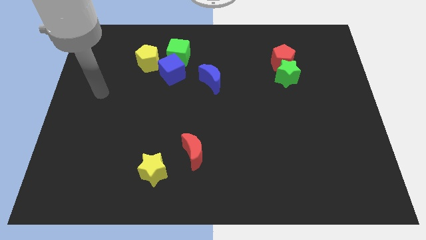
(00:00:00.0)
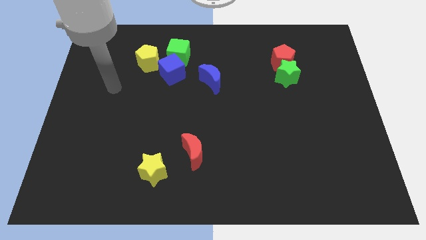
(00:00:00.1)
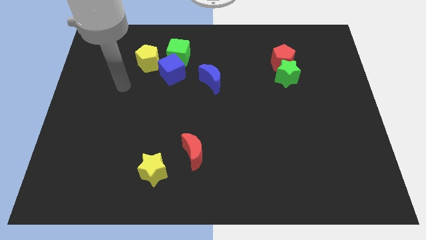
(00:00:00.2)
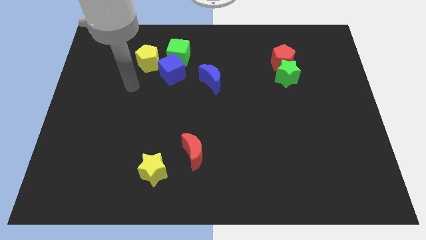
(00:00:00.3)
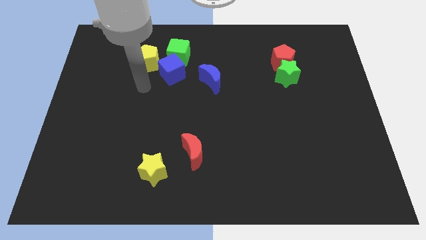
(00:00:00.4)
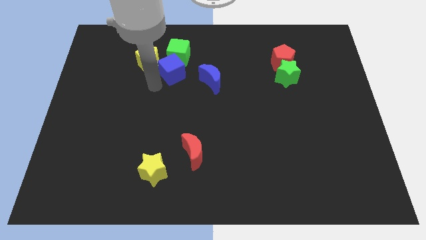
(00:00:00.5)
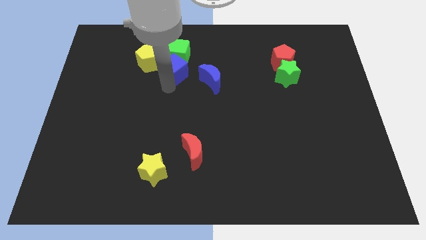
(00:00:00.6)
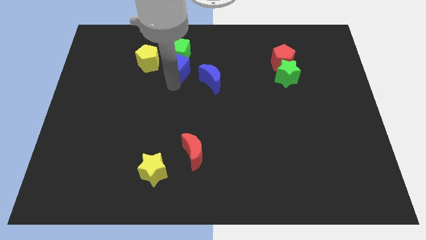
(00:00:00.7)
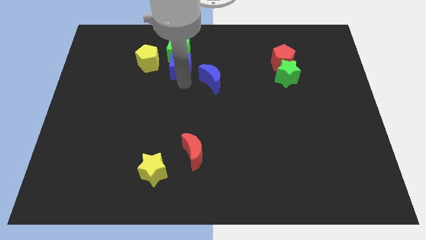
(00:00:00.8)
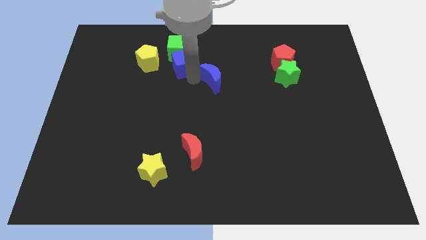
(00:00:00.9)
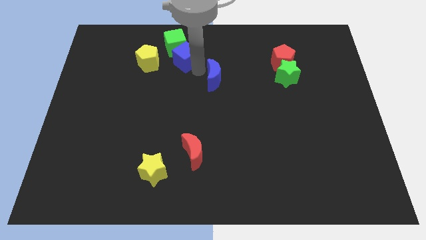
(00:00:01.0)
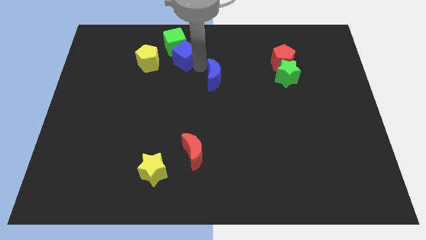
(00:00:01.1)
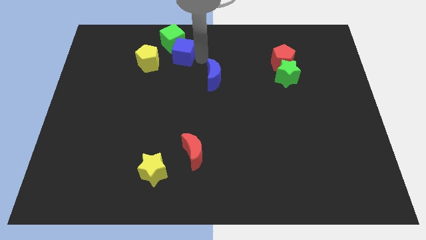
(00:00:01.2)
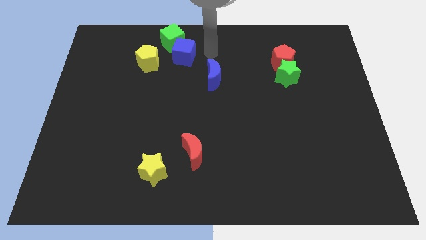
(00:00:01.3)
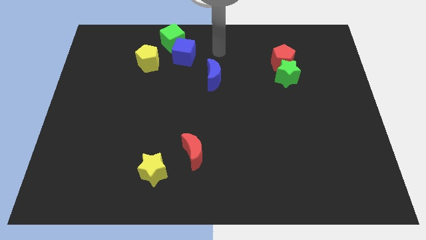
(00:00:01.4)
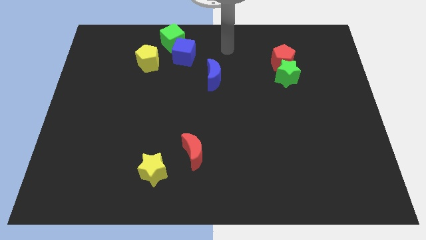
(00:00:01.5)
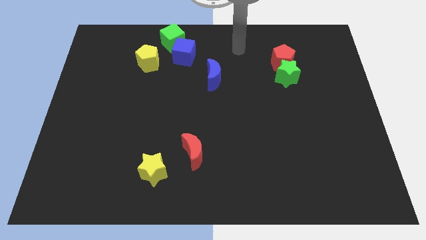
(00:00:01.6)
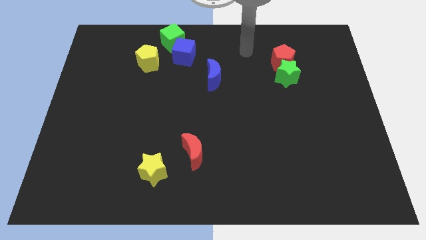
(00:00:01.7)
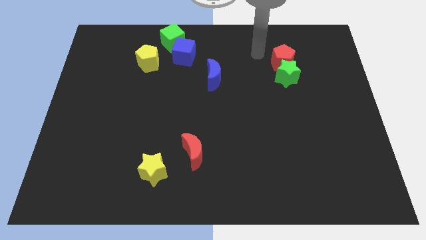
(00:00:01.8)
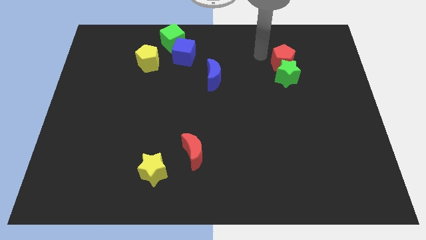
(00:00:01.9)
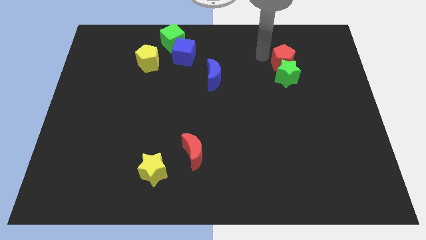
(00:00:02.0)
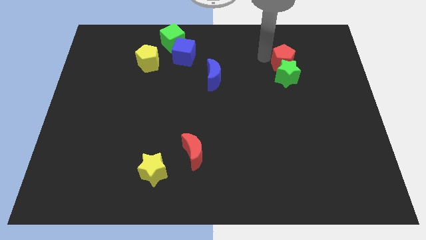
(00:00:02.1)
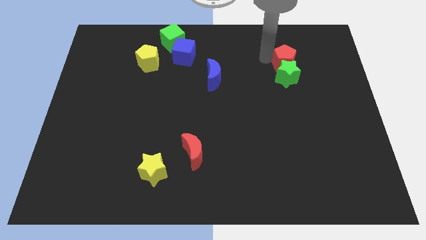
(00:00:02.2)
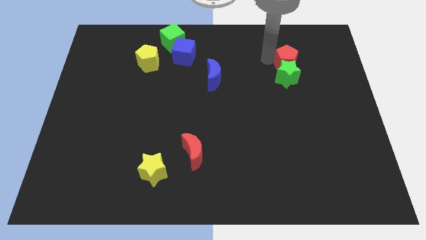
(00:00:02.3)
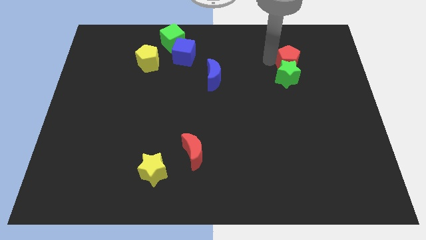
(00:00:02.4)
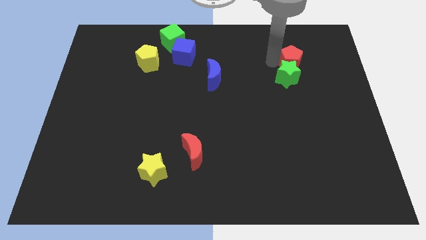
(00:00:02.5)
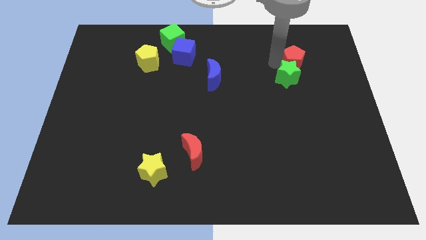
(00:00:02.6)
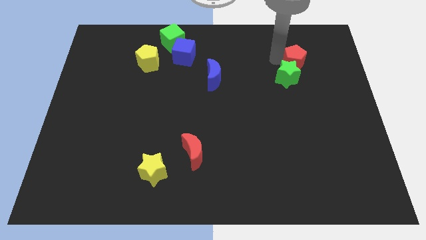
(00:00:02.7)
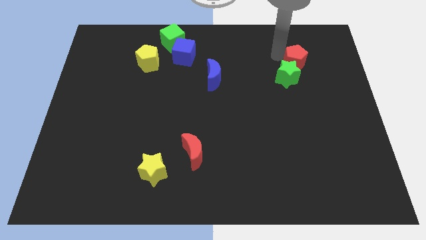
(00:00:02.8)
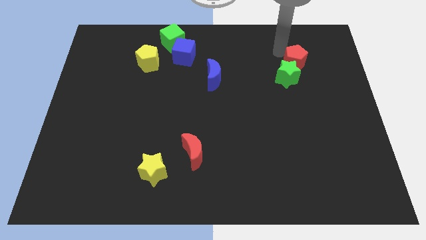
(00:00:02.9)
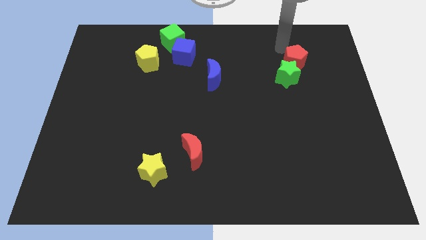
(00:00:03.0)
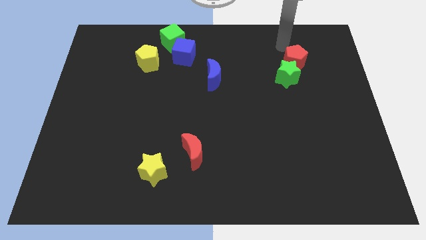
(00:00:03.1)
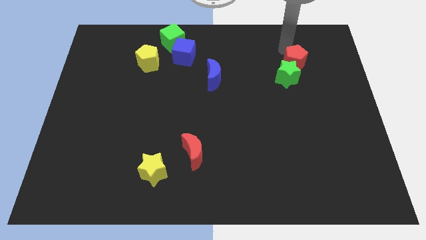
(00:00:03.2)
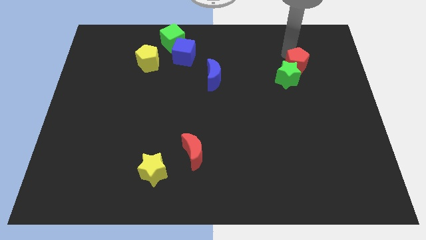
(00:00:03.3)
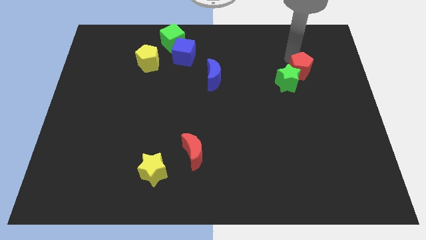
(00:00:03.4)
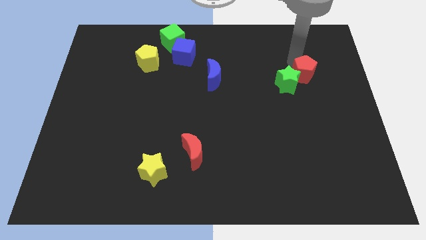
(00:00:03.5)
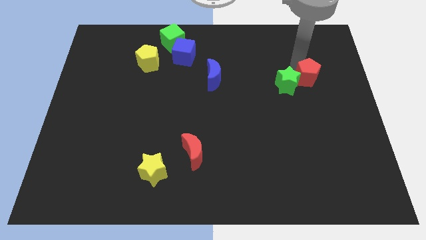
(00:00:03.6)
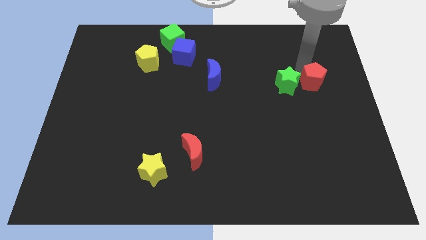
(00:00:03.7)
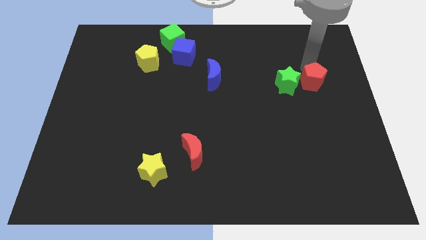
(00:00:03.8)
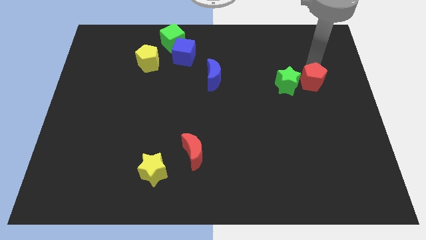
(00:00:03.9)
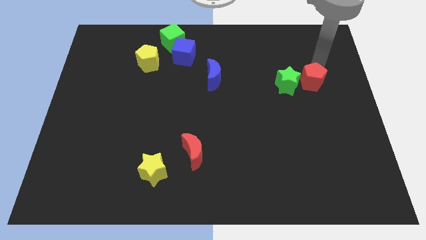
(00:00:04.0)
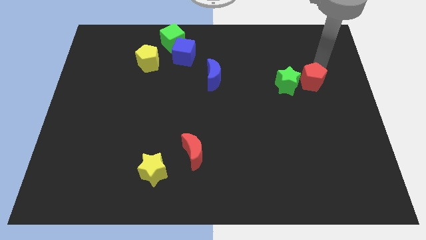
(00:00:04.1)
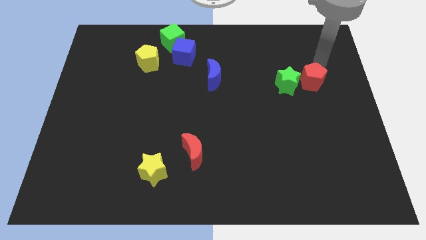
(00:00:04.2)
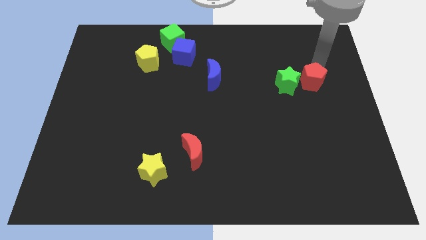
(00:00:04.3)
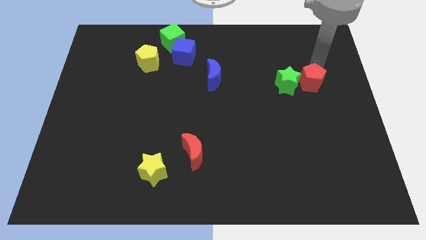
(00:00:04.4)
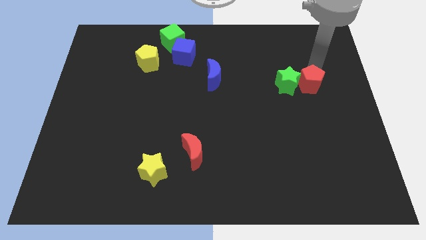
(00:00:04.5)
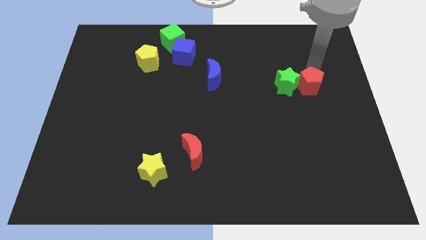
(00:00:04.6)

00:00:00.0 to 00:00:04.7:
slide the red pentagon a bit downwards

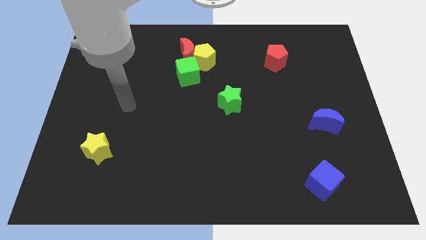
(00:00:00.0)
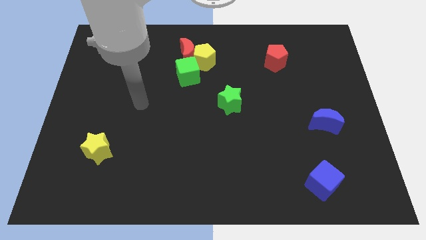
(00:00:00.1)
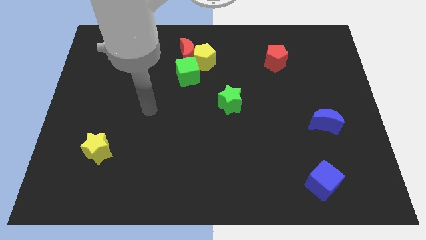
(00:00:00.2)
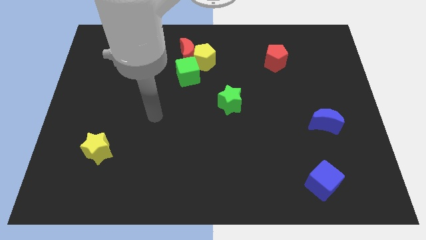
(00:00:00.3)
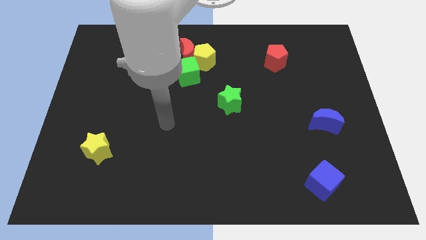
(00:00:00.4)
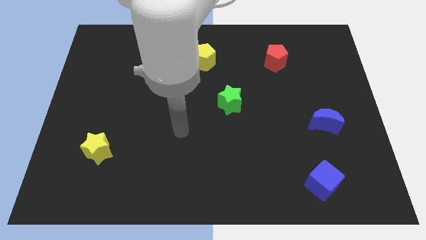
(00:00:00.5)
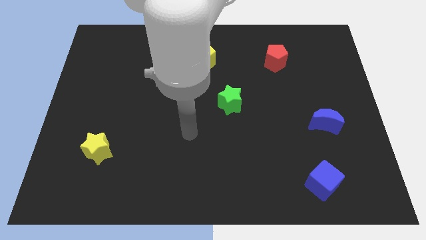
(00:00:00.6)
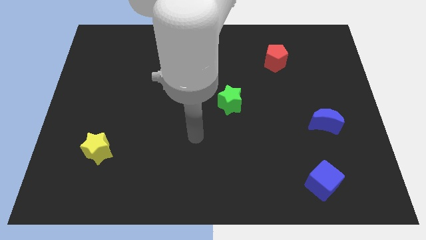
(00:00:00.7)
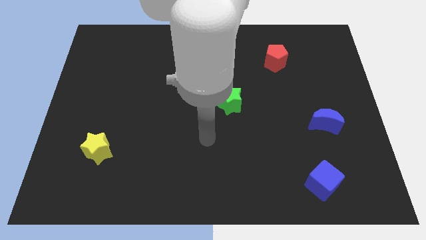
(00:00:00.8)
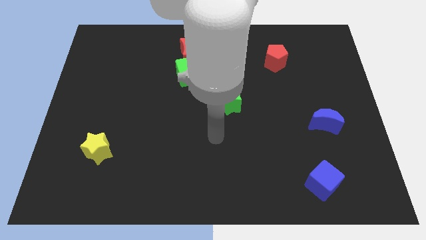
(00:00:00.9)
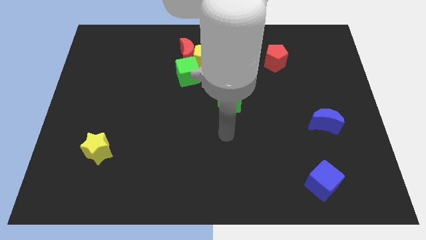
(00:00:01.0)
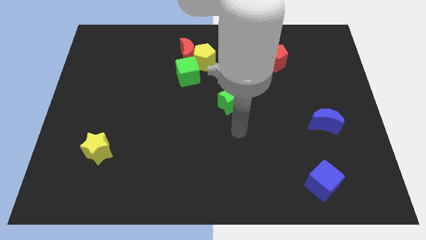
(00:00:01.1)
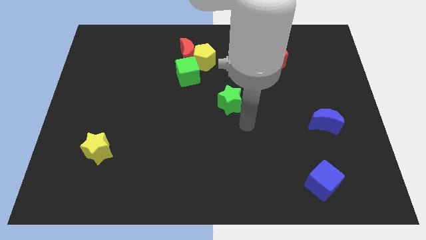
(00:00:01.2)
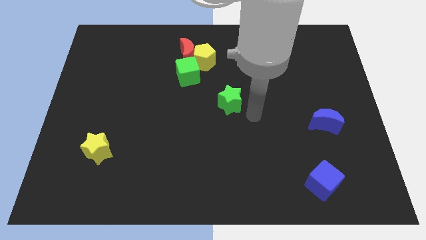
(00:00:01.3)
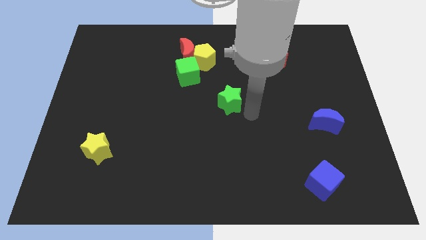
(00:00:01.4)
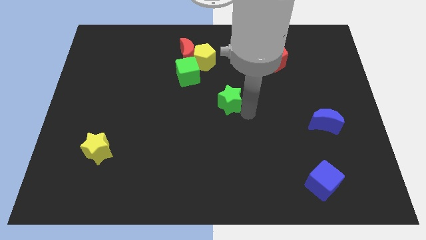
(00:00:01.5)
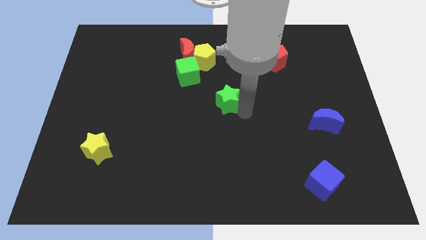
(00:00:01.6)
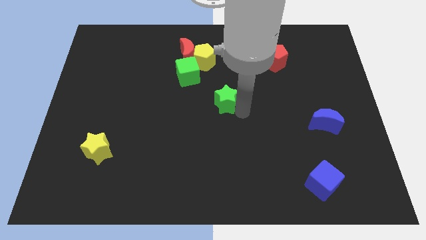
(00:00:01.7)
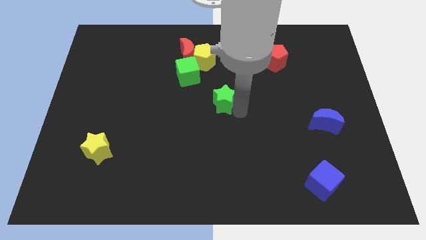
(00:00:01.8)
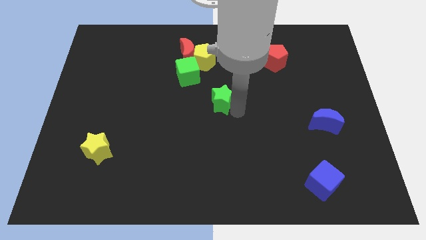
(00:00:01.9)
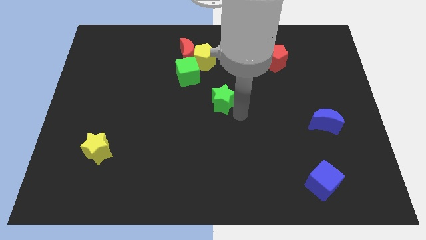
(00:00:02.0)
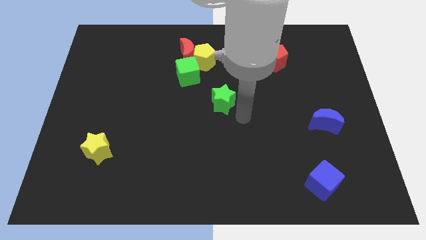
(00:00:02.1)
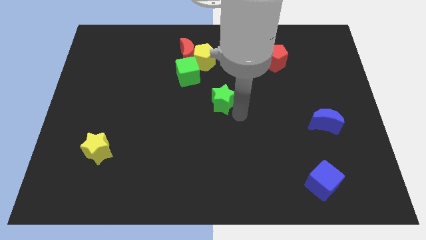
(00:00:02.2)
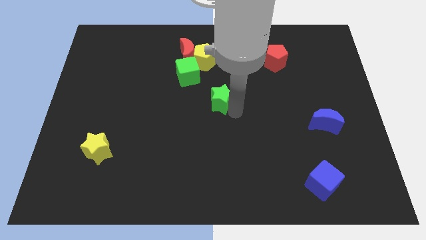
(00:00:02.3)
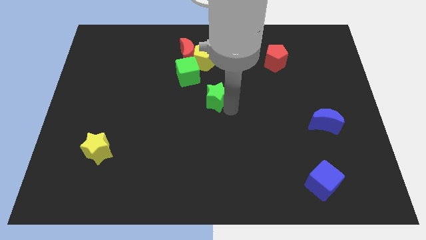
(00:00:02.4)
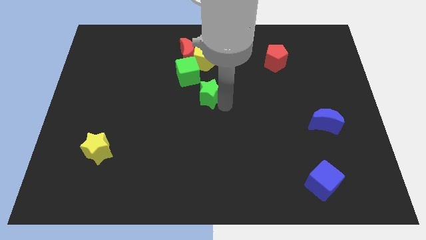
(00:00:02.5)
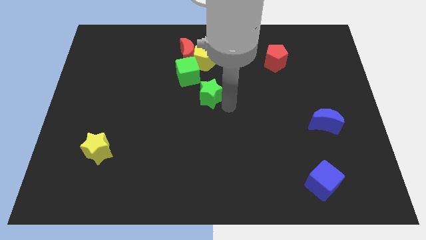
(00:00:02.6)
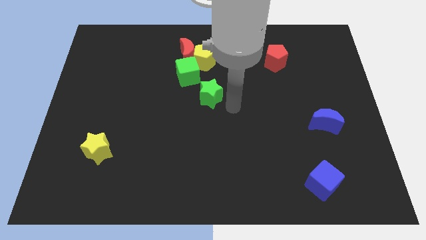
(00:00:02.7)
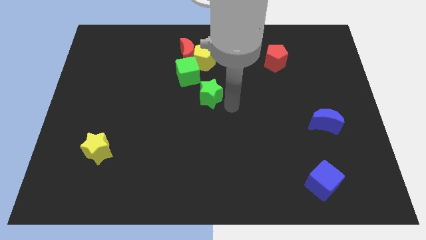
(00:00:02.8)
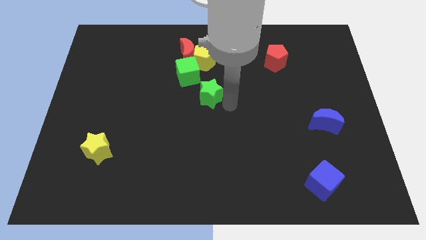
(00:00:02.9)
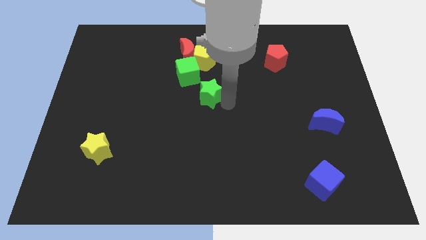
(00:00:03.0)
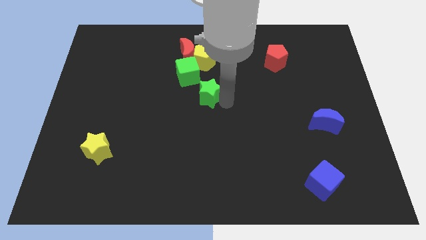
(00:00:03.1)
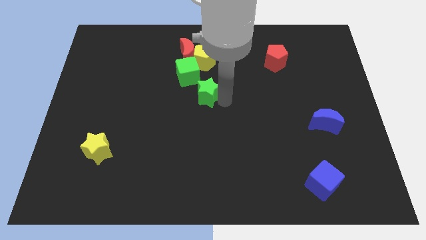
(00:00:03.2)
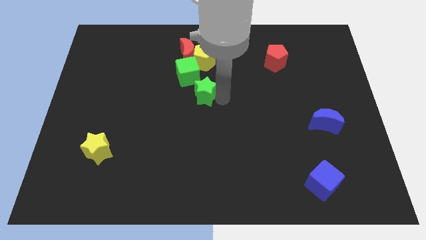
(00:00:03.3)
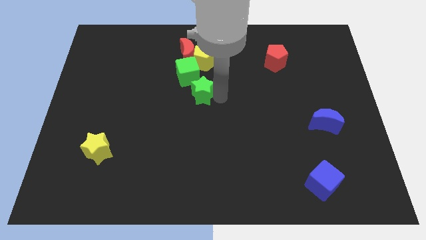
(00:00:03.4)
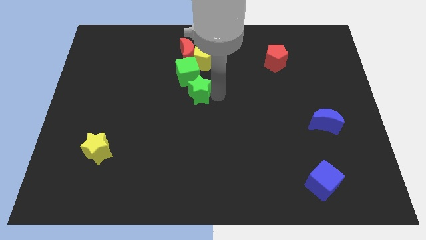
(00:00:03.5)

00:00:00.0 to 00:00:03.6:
move the green star a little bit up and to the left diagonally

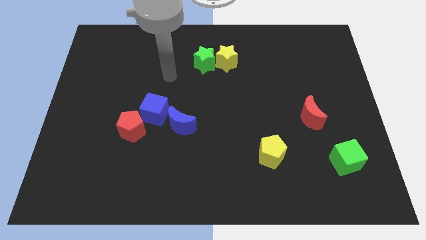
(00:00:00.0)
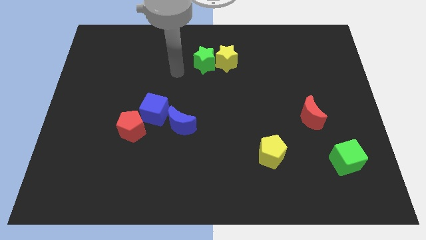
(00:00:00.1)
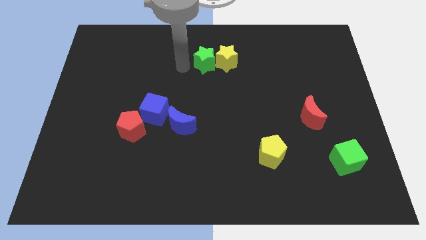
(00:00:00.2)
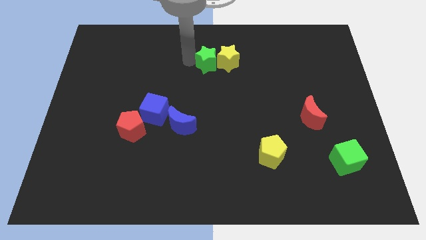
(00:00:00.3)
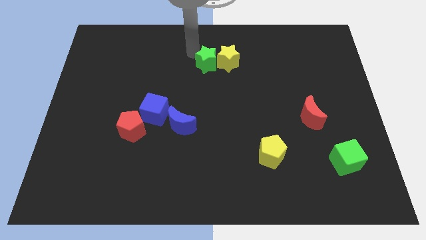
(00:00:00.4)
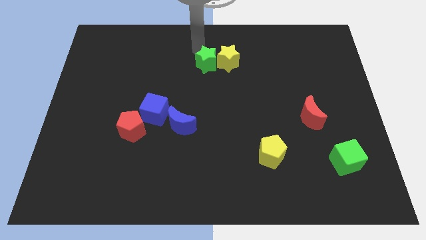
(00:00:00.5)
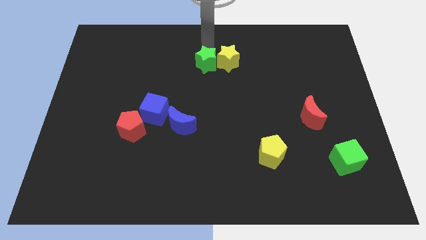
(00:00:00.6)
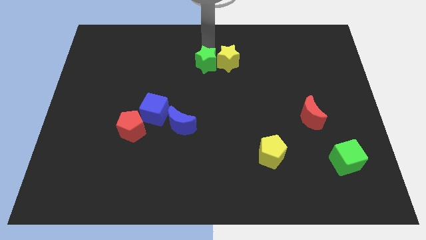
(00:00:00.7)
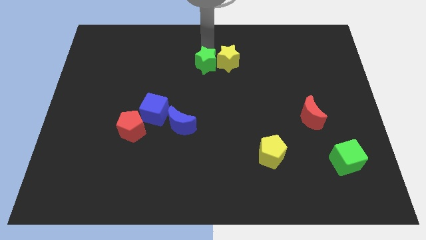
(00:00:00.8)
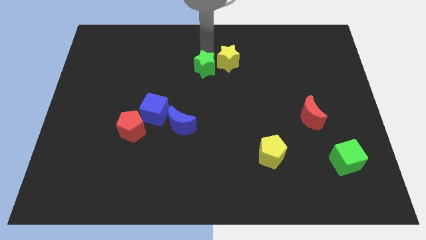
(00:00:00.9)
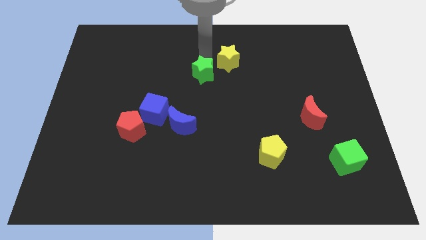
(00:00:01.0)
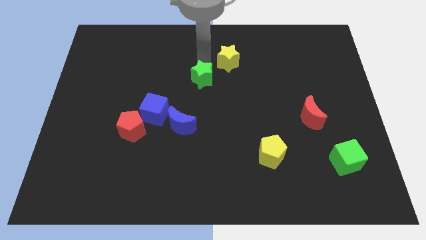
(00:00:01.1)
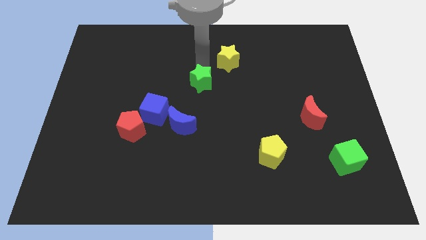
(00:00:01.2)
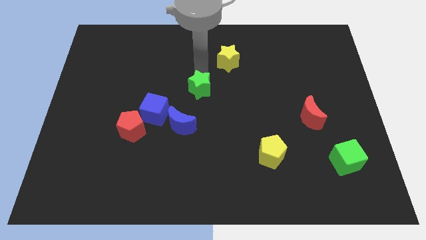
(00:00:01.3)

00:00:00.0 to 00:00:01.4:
slightly slide the green star downwards
